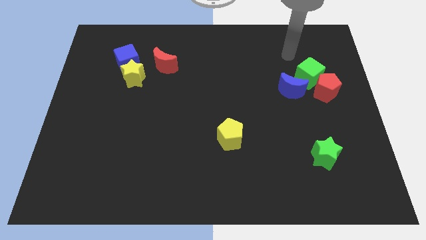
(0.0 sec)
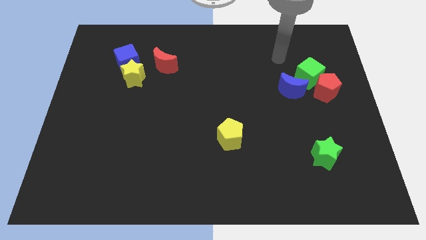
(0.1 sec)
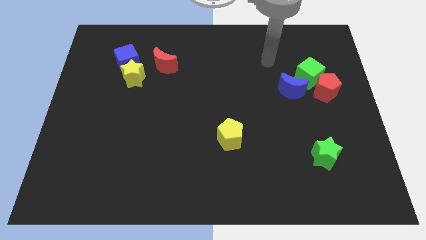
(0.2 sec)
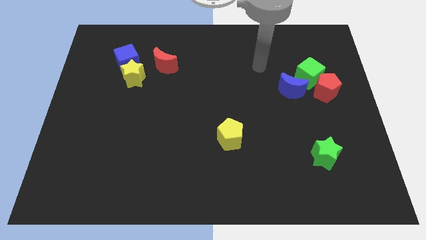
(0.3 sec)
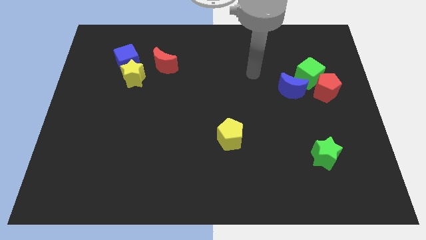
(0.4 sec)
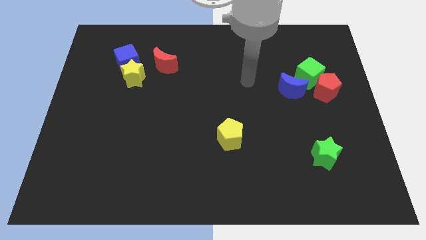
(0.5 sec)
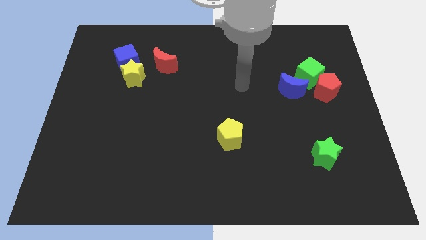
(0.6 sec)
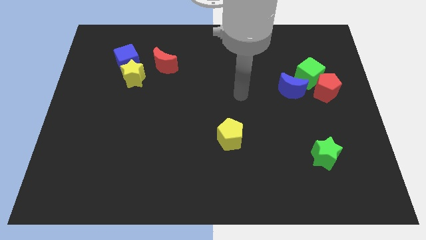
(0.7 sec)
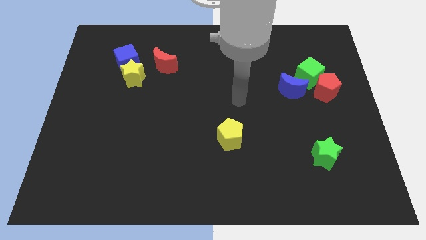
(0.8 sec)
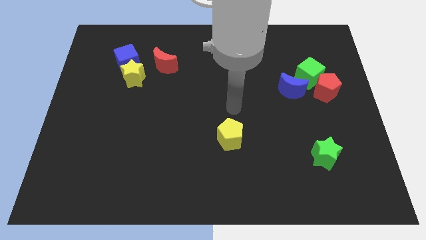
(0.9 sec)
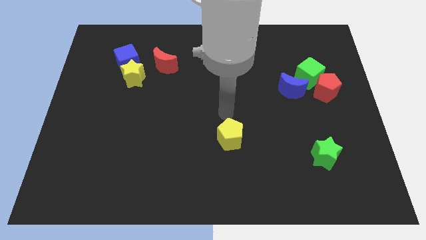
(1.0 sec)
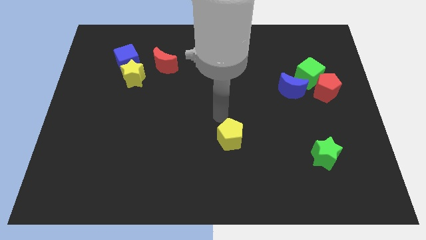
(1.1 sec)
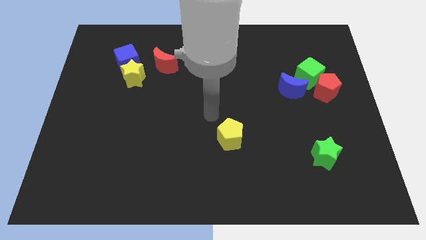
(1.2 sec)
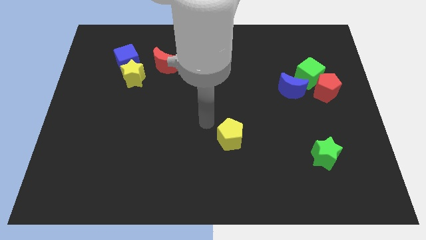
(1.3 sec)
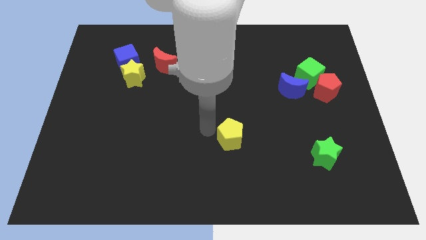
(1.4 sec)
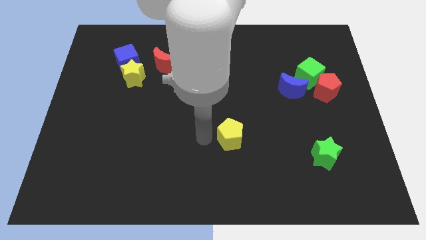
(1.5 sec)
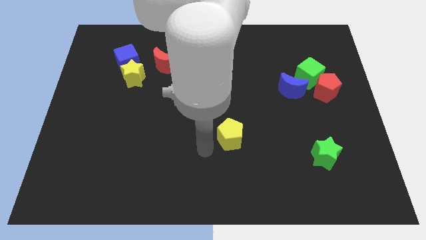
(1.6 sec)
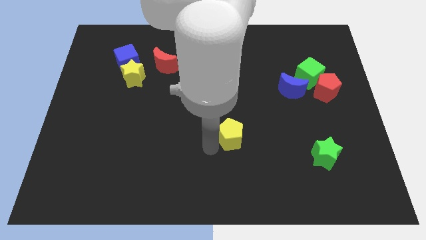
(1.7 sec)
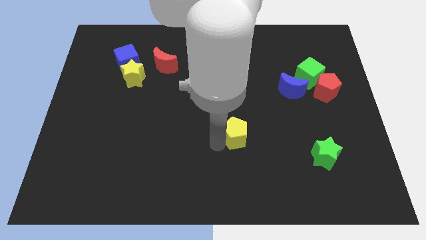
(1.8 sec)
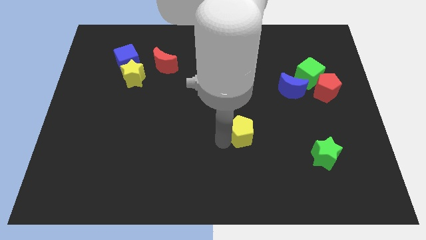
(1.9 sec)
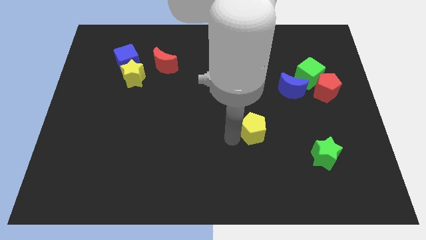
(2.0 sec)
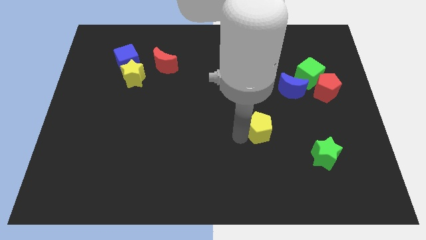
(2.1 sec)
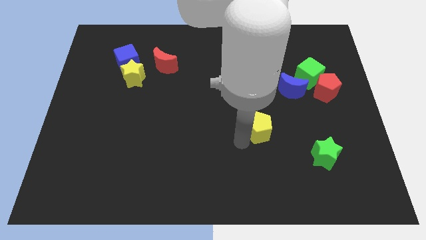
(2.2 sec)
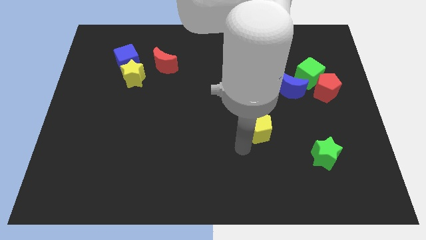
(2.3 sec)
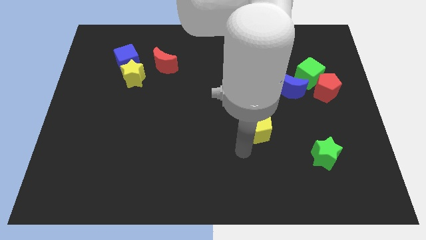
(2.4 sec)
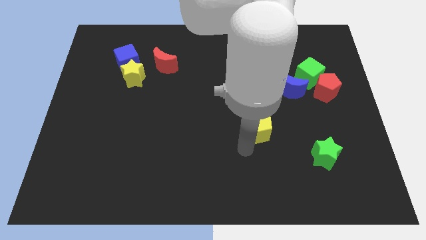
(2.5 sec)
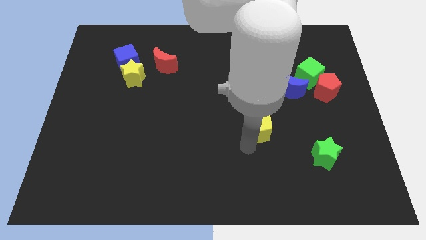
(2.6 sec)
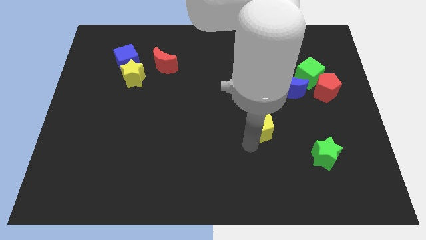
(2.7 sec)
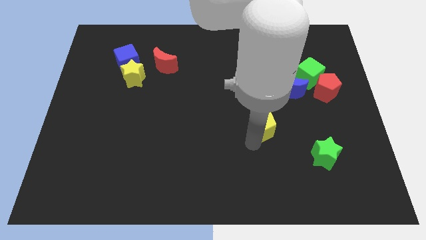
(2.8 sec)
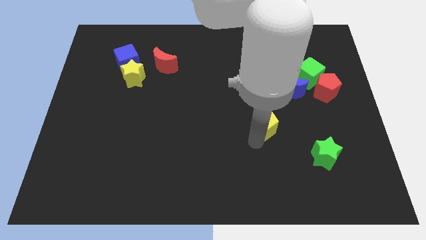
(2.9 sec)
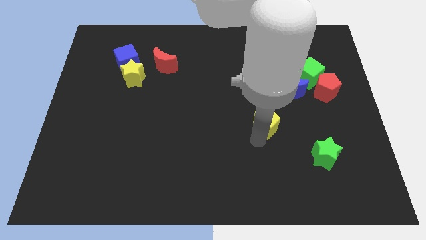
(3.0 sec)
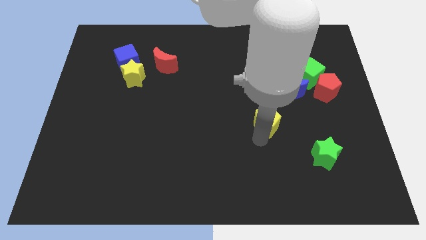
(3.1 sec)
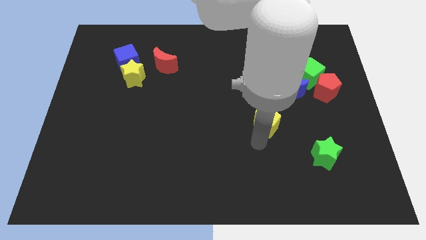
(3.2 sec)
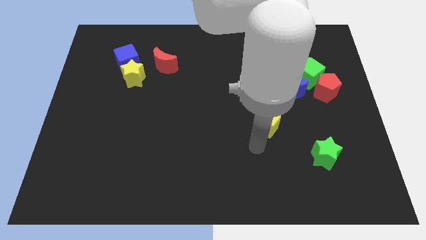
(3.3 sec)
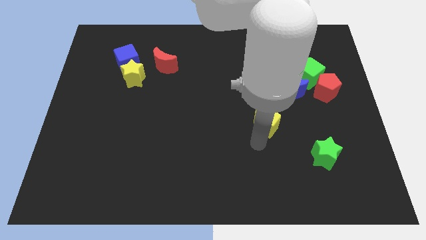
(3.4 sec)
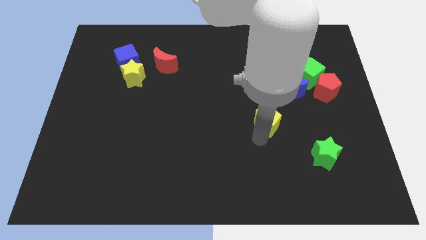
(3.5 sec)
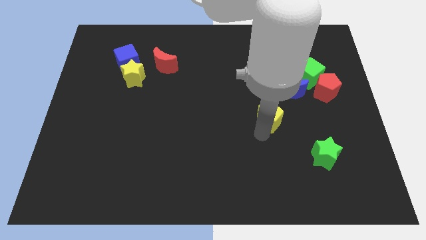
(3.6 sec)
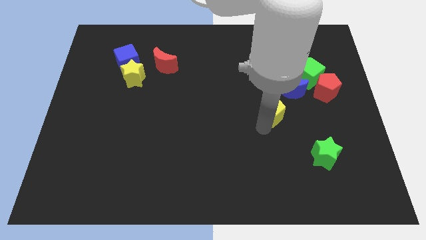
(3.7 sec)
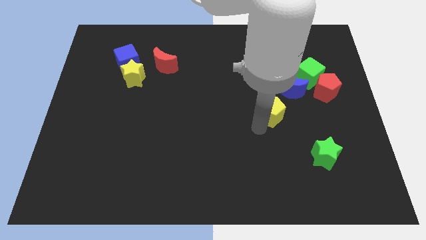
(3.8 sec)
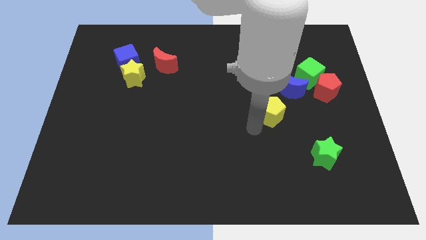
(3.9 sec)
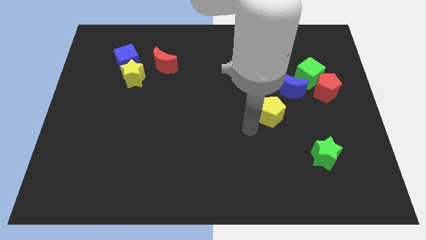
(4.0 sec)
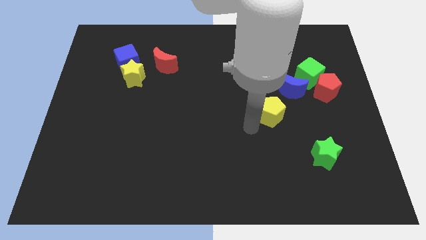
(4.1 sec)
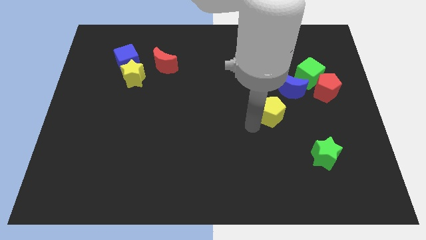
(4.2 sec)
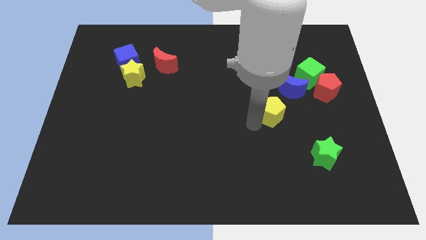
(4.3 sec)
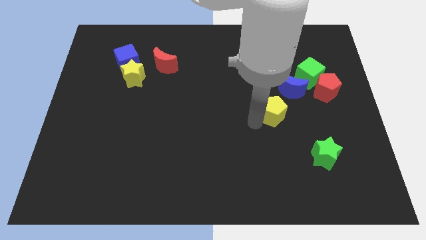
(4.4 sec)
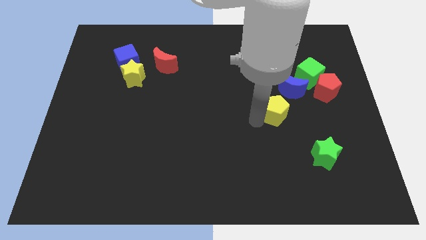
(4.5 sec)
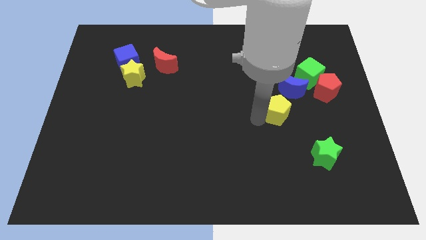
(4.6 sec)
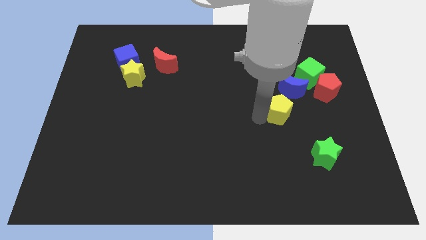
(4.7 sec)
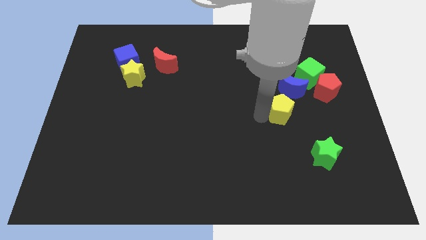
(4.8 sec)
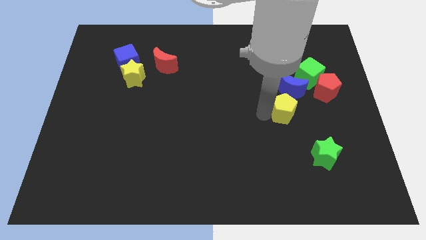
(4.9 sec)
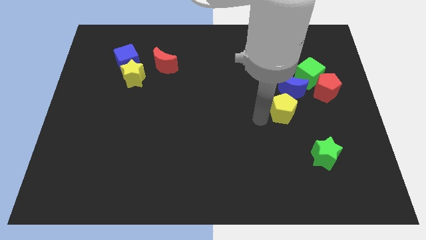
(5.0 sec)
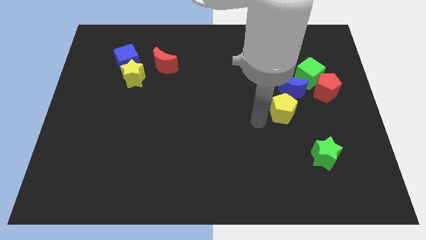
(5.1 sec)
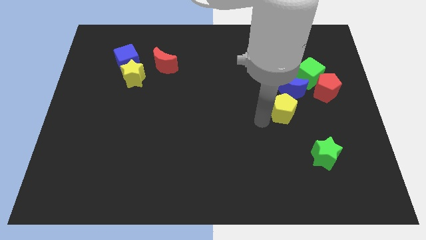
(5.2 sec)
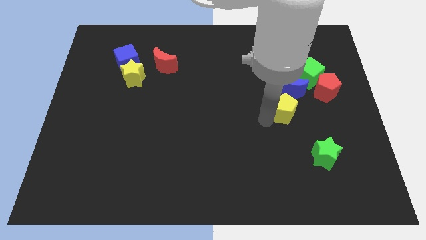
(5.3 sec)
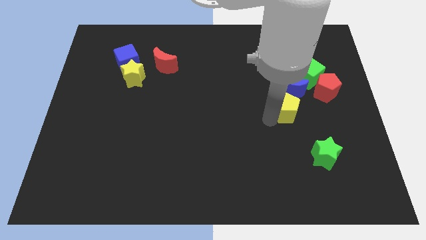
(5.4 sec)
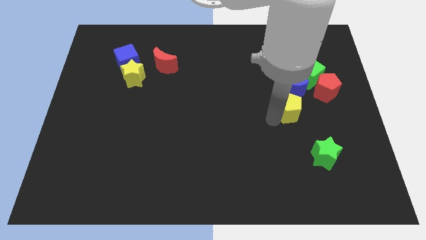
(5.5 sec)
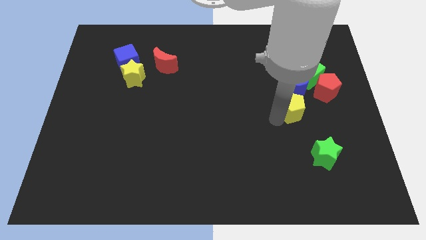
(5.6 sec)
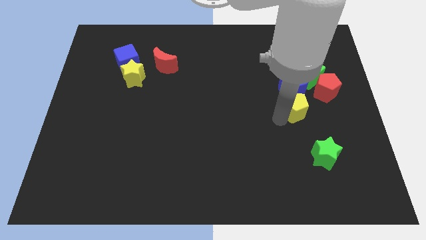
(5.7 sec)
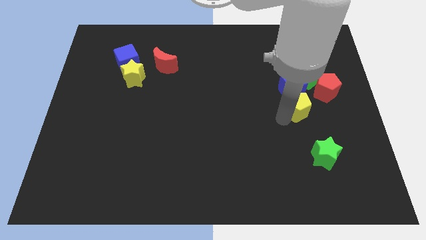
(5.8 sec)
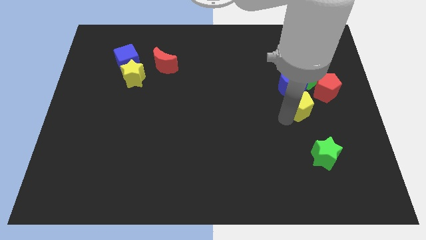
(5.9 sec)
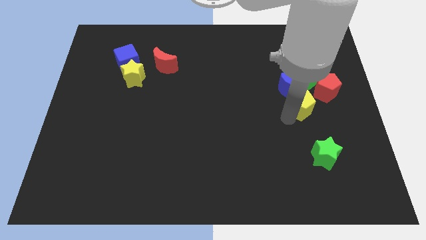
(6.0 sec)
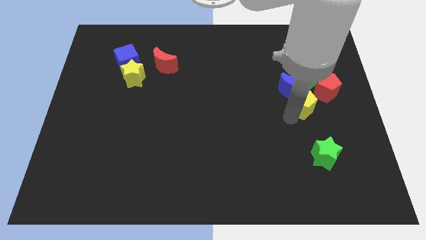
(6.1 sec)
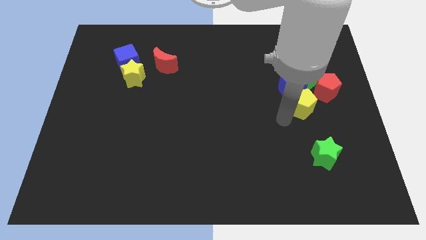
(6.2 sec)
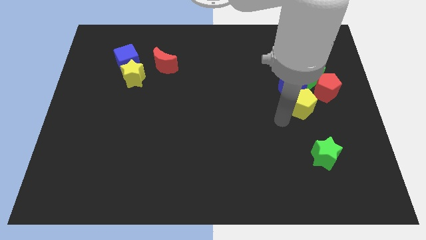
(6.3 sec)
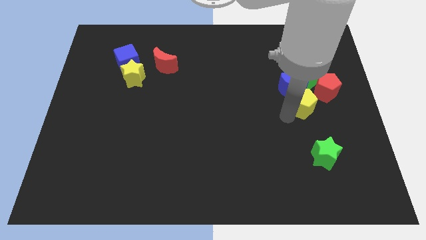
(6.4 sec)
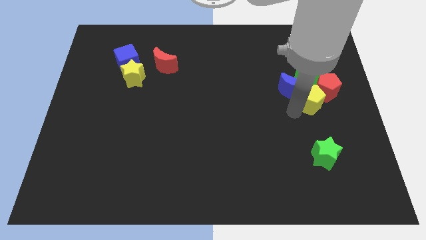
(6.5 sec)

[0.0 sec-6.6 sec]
put the yellow pentagon next to the red pentagon

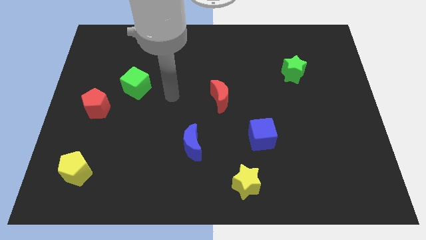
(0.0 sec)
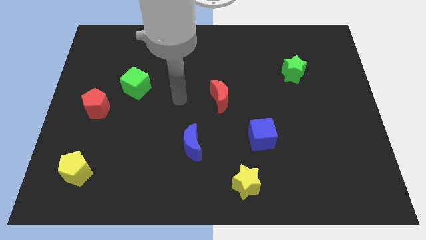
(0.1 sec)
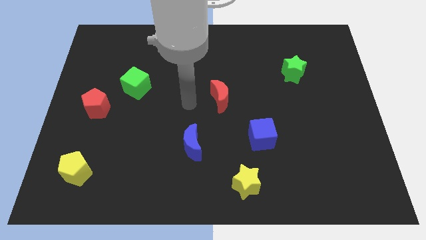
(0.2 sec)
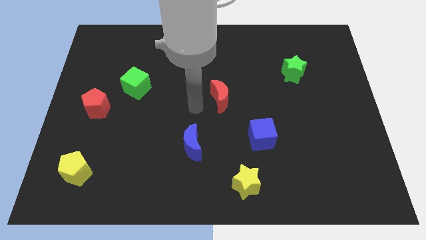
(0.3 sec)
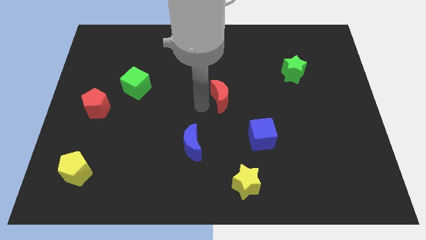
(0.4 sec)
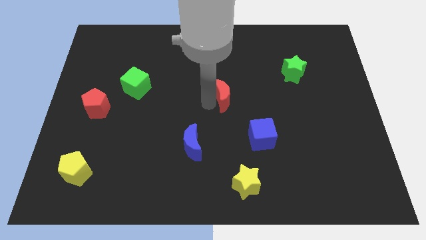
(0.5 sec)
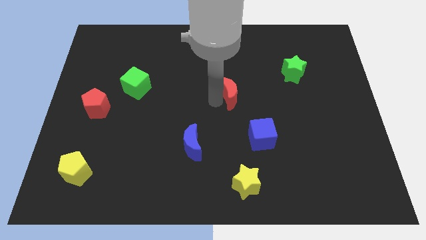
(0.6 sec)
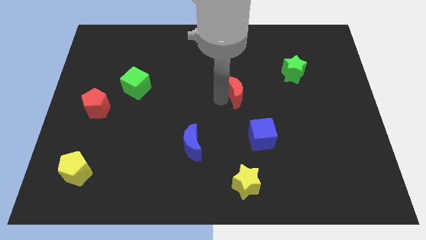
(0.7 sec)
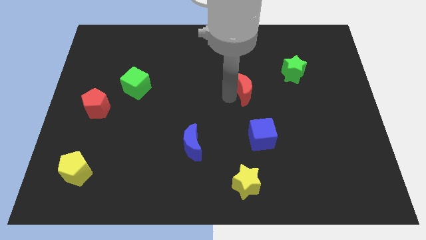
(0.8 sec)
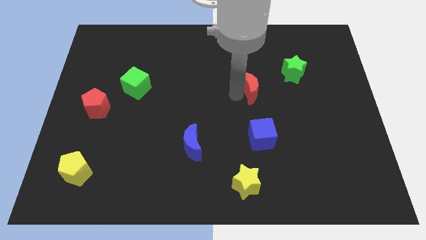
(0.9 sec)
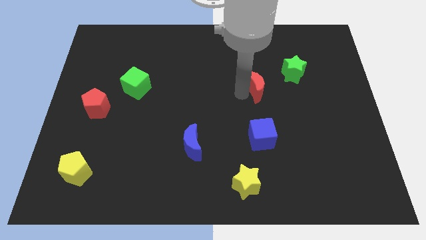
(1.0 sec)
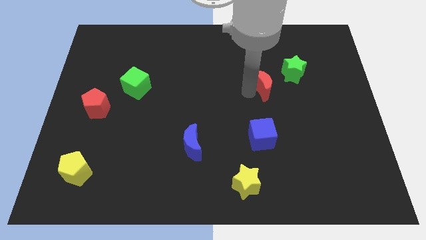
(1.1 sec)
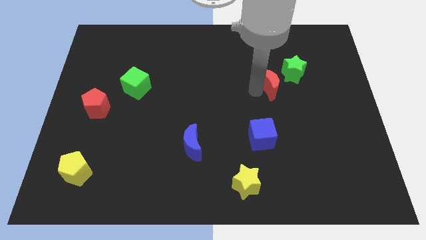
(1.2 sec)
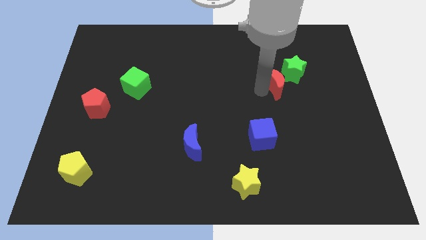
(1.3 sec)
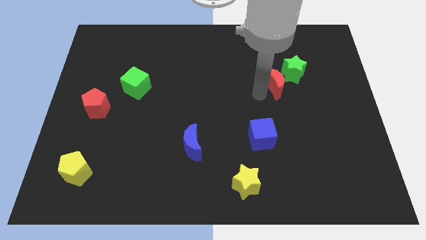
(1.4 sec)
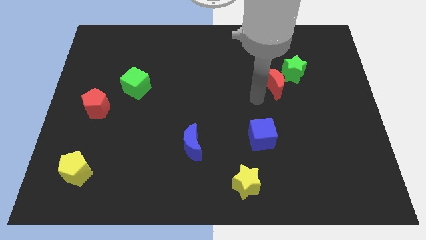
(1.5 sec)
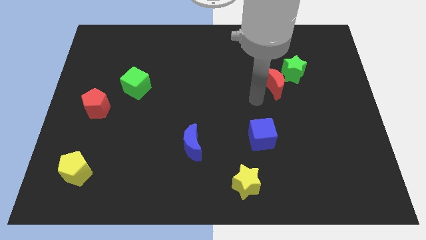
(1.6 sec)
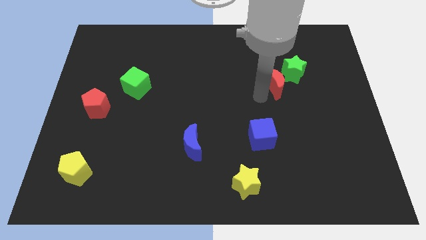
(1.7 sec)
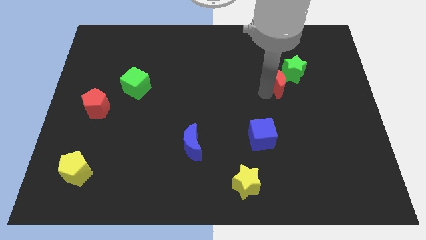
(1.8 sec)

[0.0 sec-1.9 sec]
push the red moon to the green star
